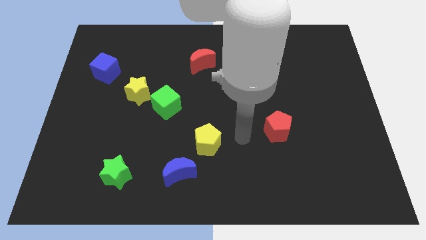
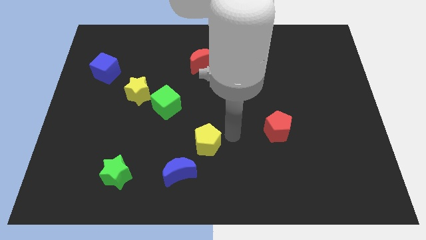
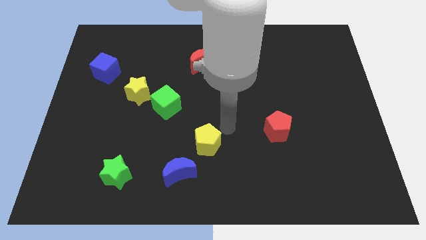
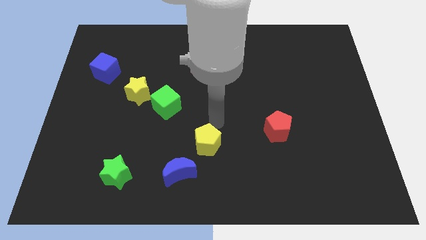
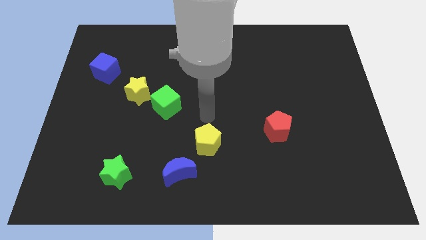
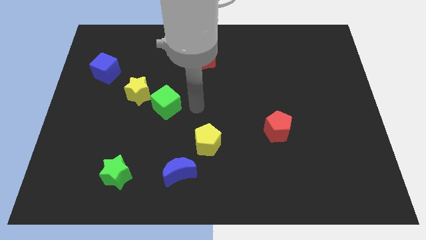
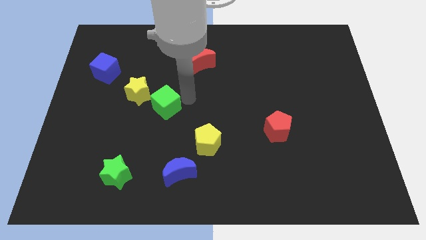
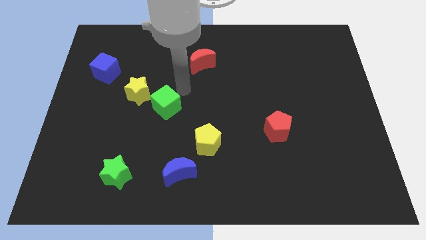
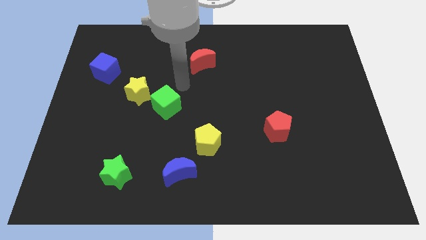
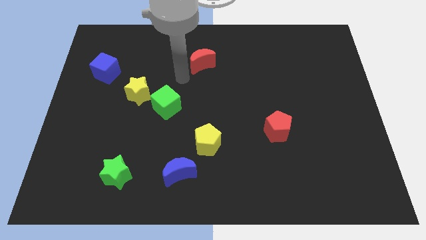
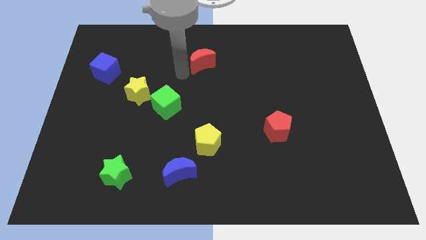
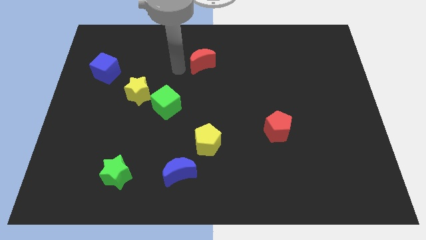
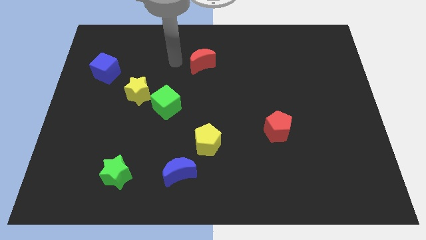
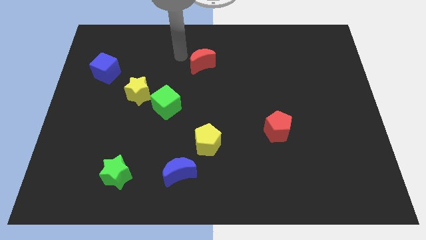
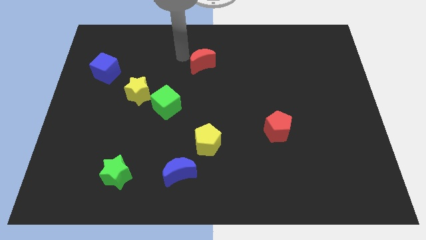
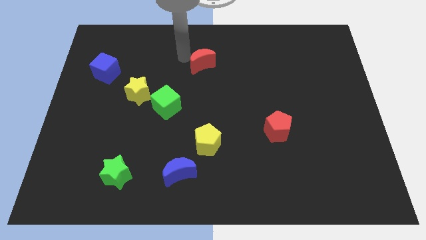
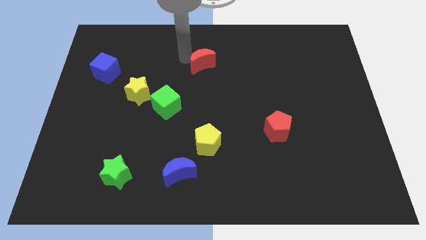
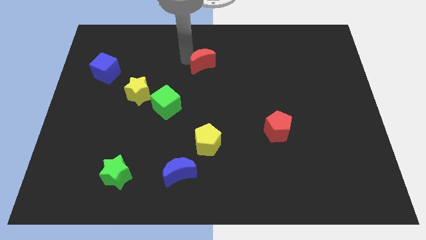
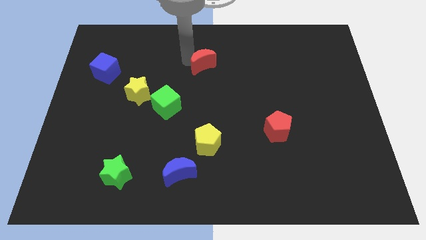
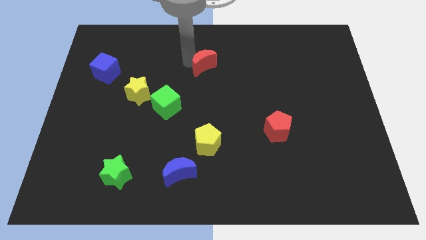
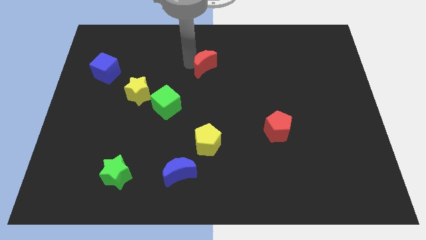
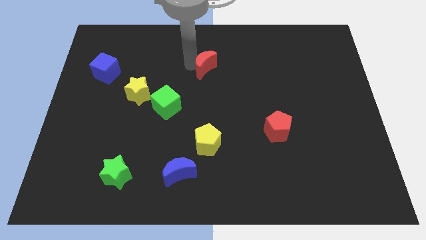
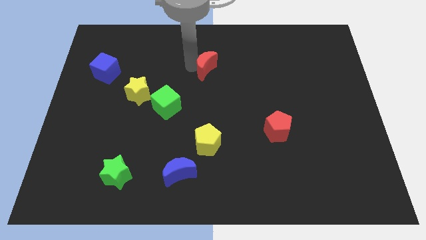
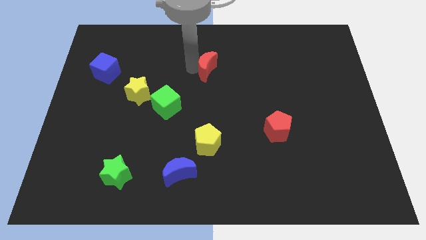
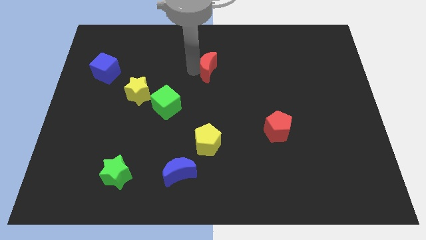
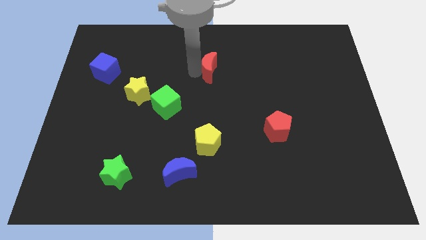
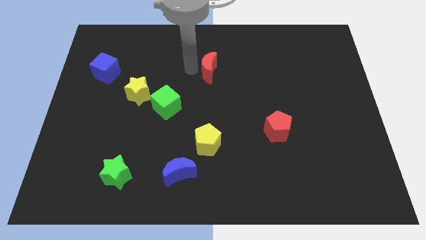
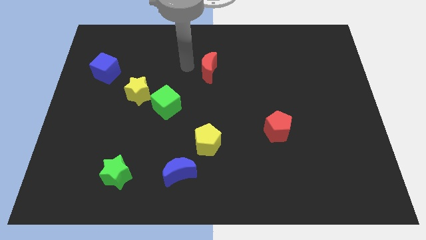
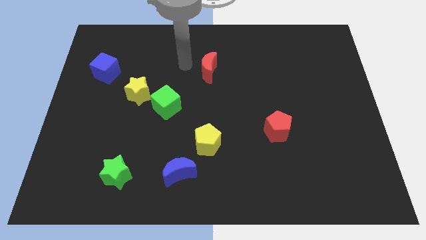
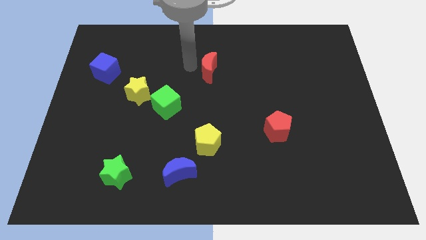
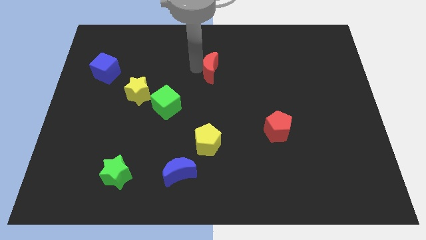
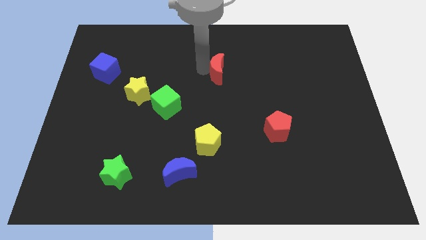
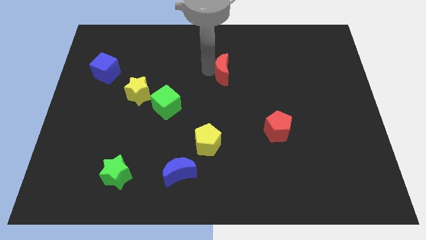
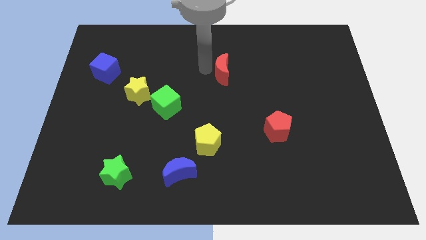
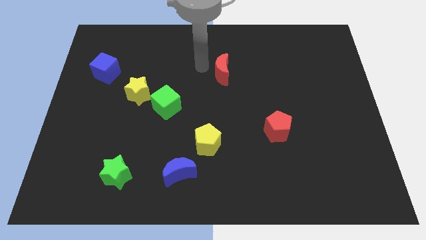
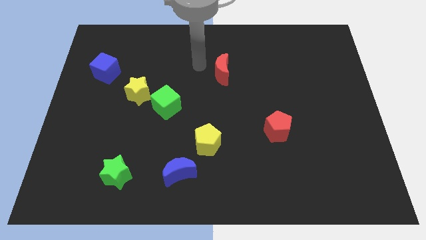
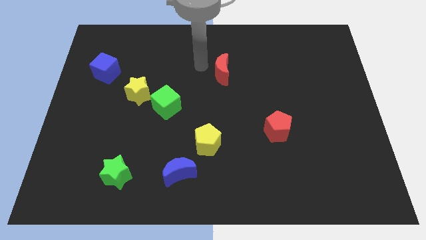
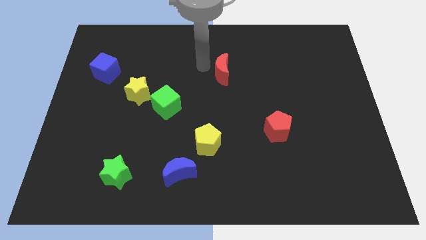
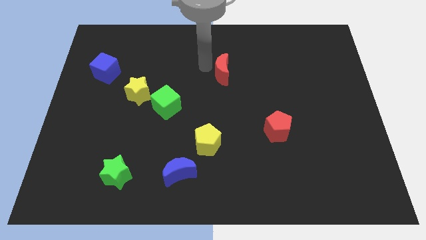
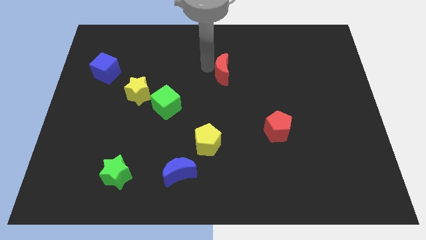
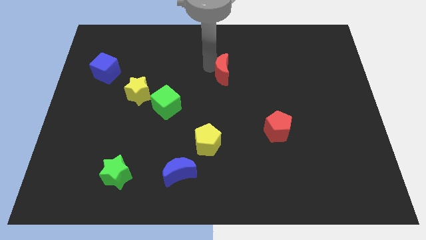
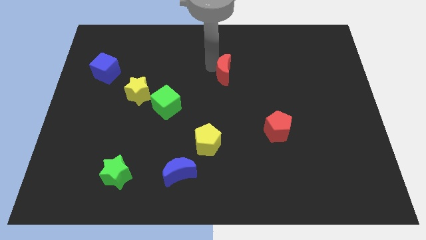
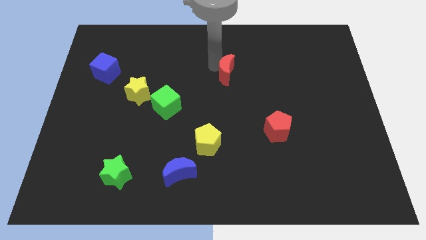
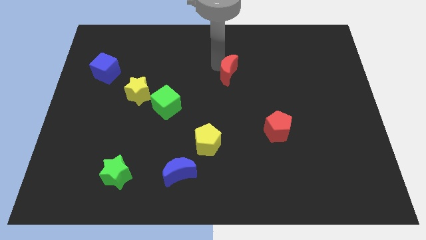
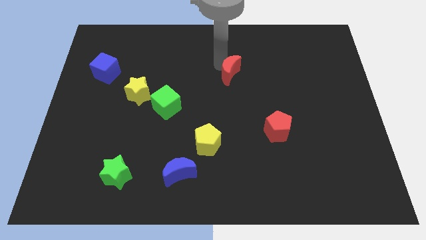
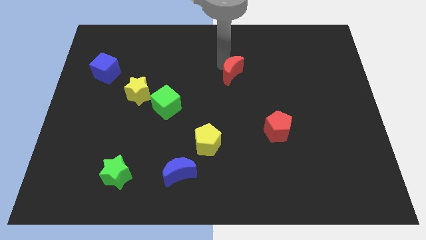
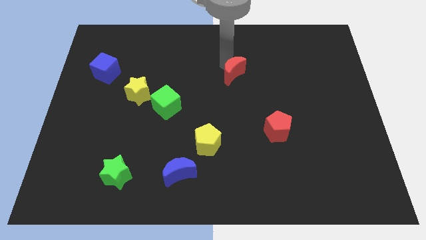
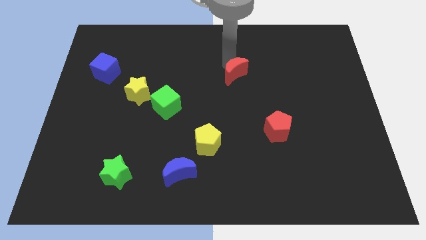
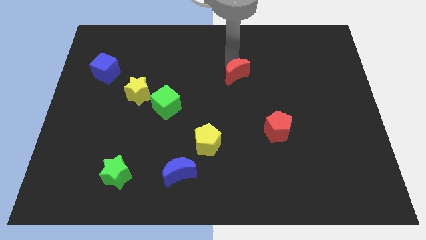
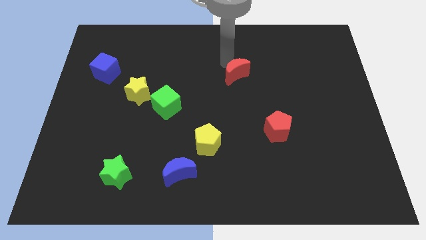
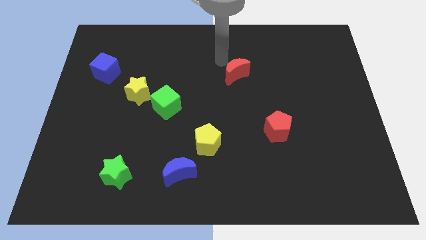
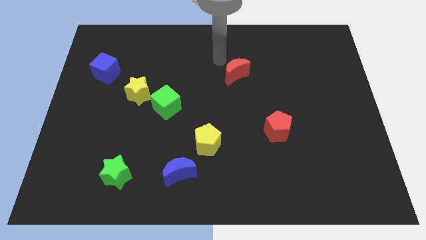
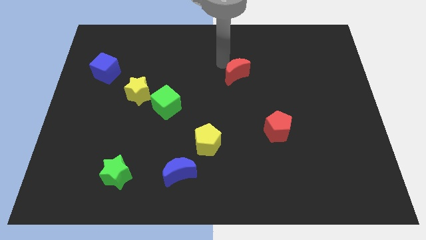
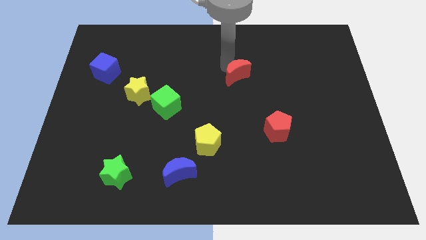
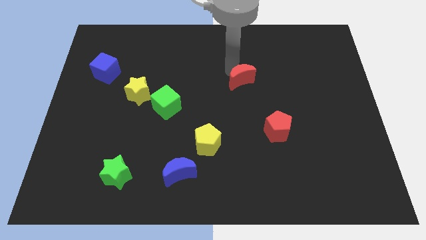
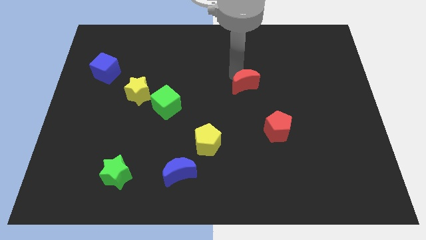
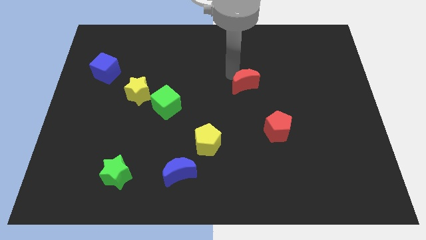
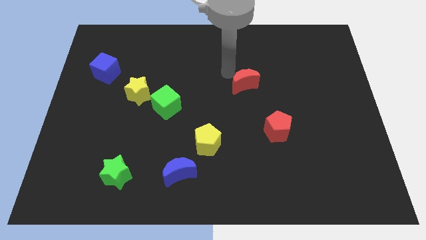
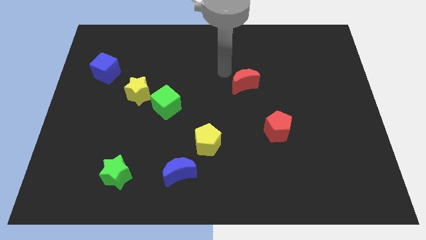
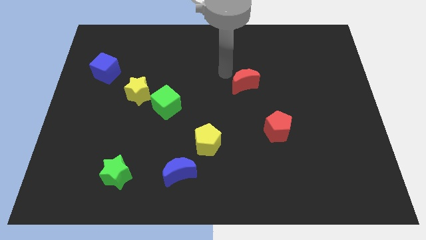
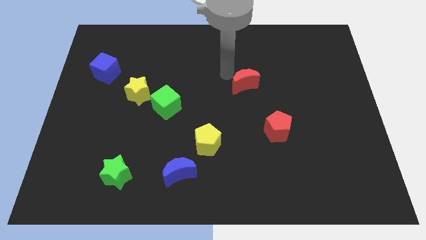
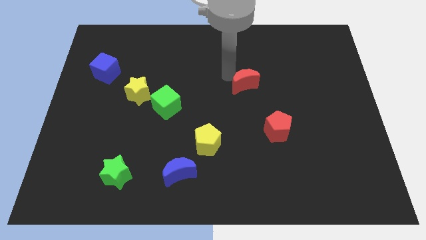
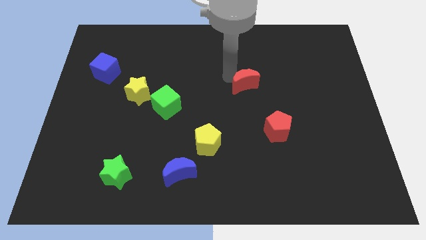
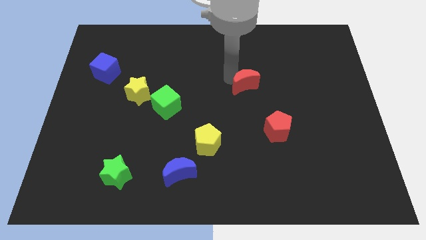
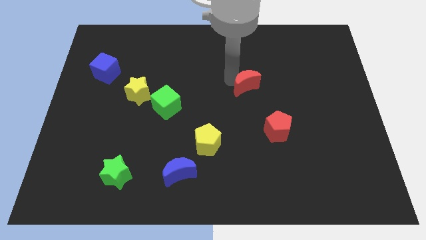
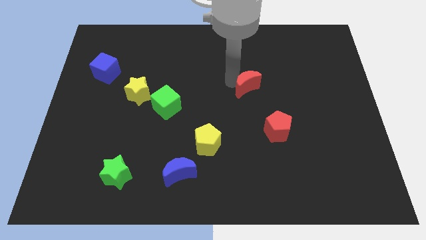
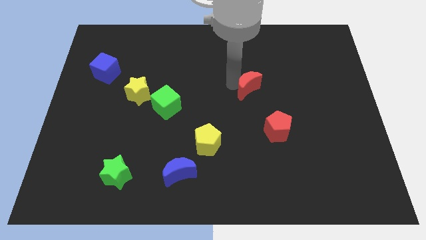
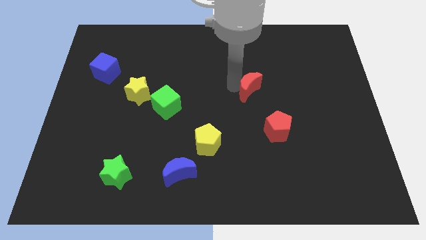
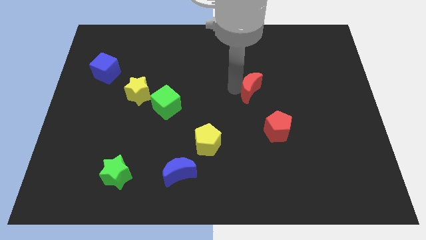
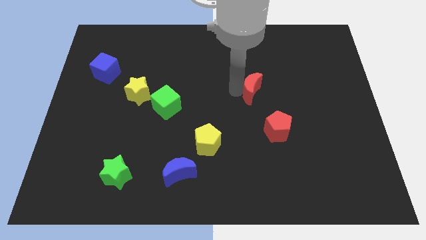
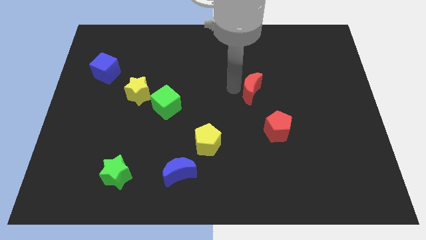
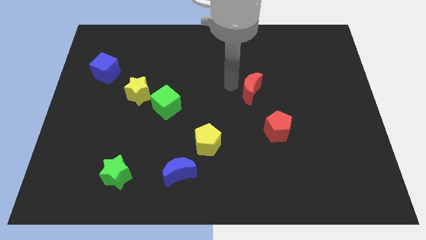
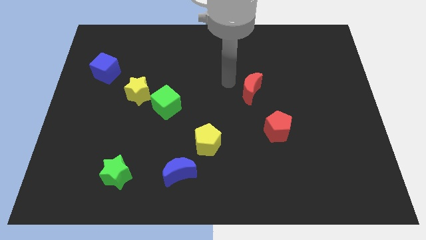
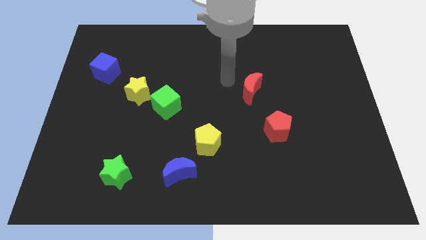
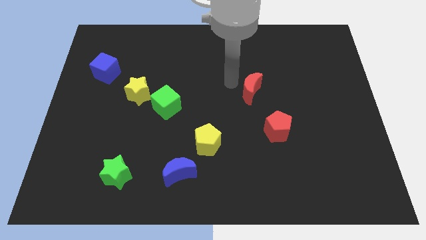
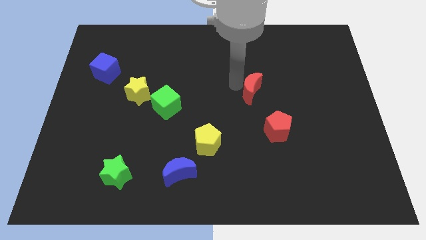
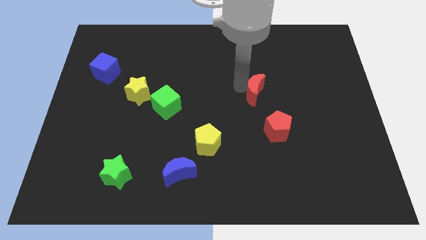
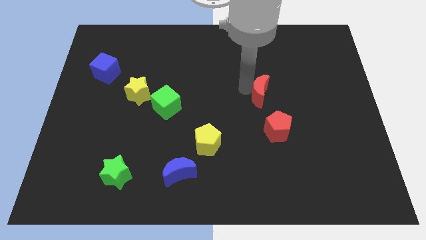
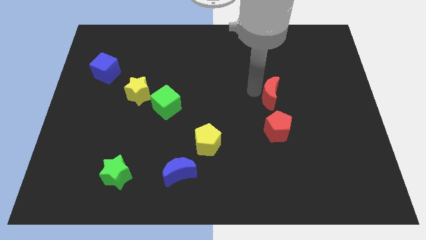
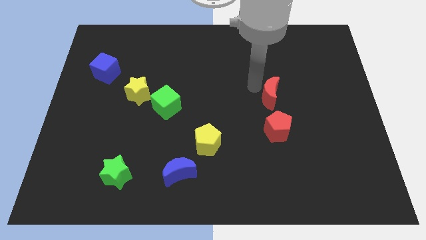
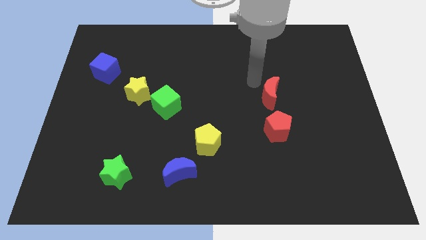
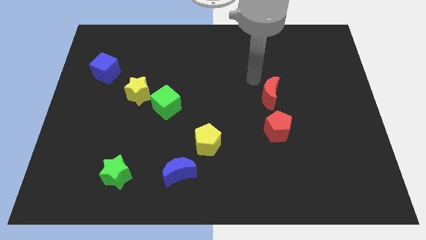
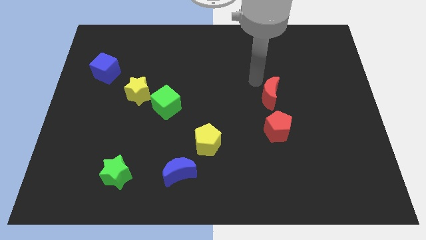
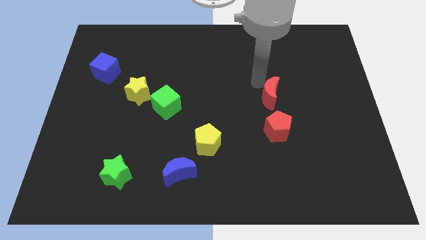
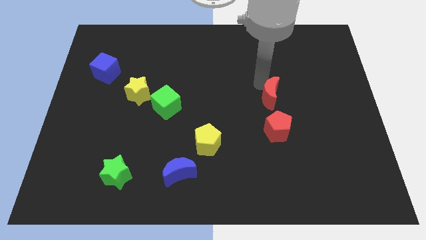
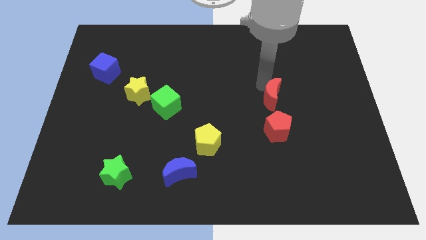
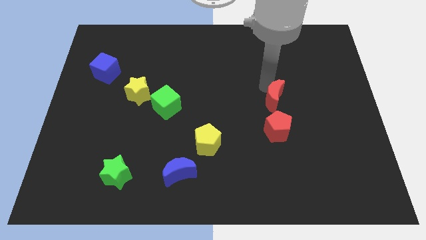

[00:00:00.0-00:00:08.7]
slide the red moon downwards and to the right diagonally
